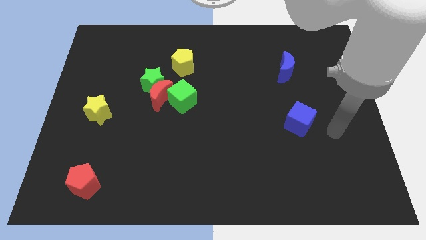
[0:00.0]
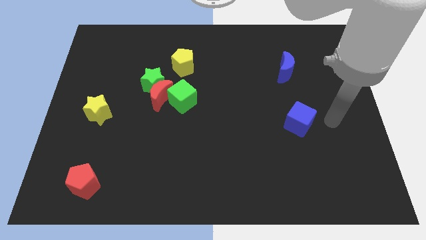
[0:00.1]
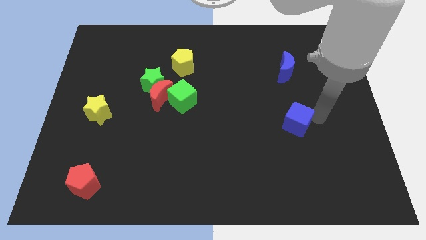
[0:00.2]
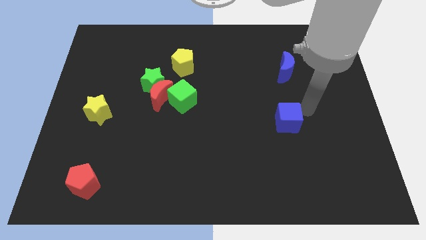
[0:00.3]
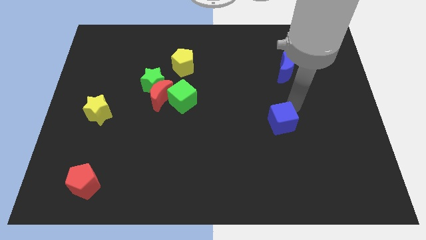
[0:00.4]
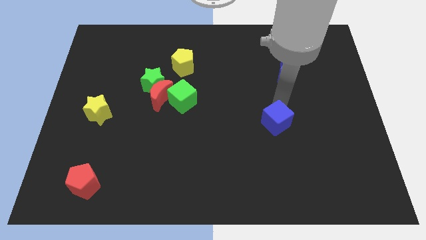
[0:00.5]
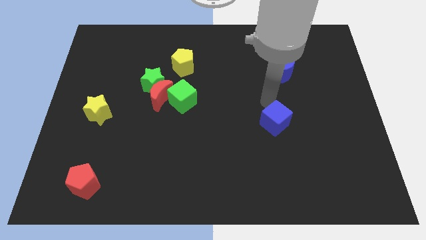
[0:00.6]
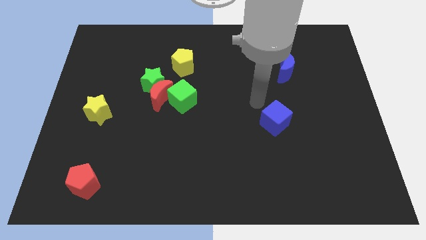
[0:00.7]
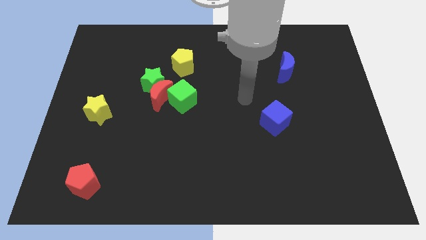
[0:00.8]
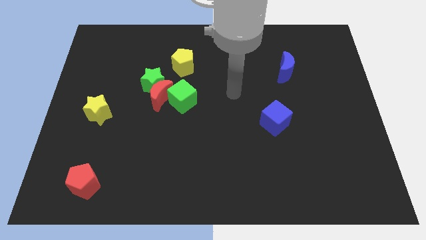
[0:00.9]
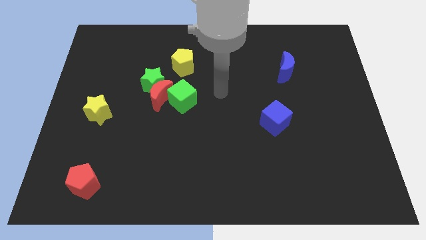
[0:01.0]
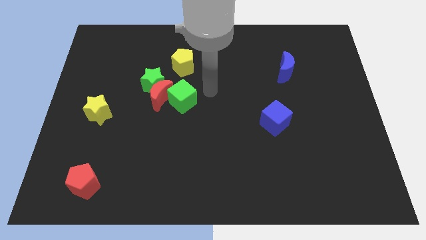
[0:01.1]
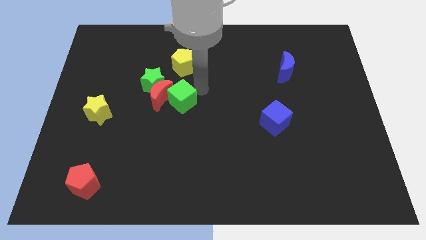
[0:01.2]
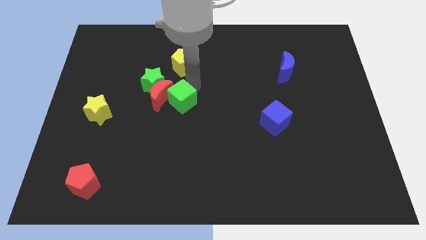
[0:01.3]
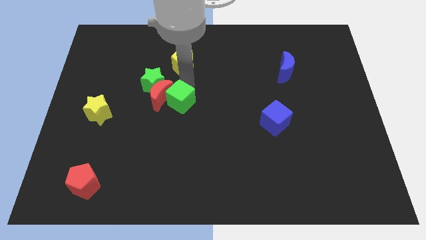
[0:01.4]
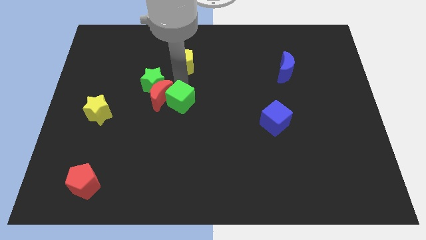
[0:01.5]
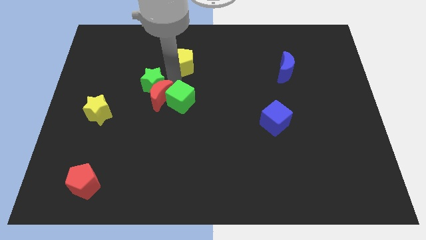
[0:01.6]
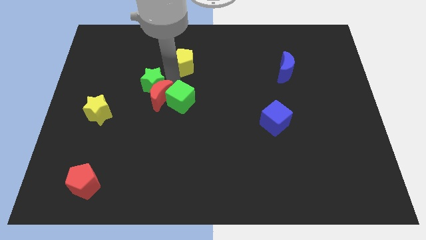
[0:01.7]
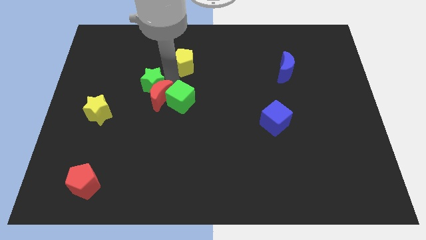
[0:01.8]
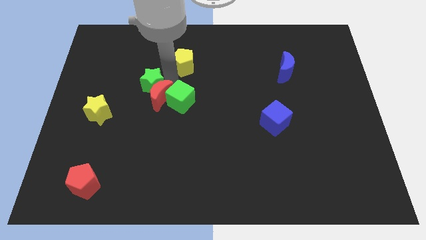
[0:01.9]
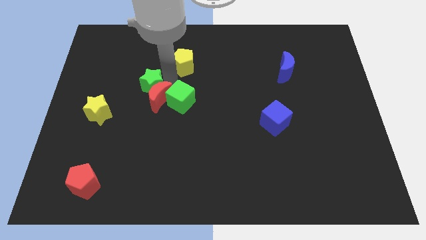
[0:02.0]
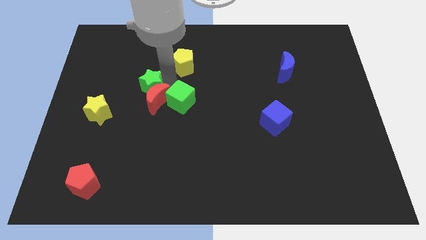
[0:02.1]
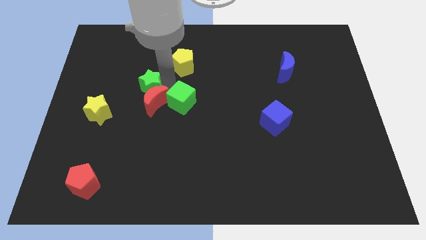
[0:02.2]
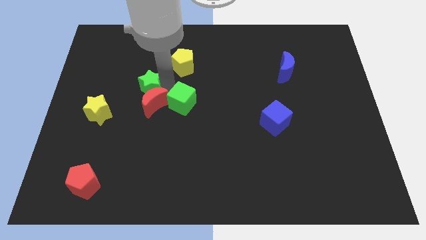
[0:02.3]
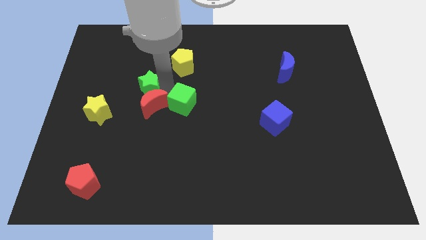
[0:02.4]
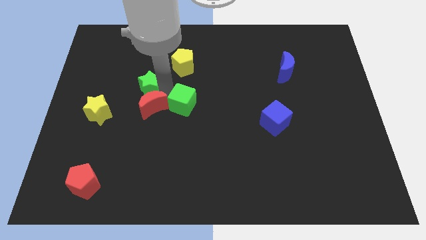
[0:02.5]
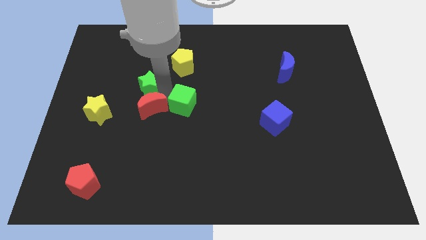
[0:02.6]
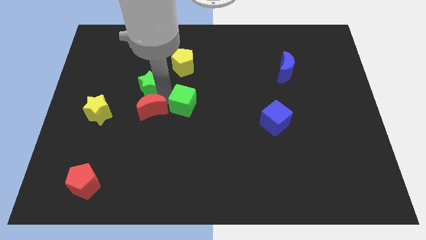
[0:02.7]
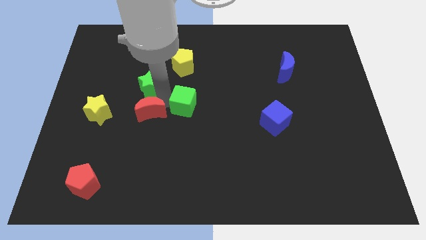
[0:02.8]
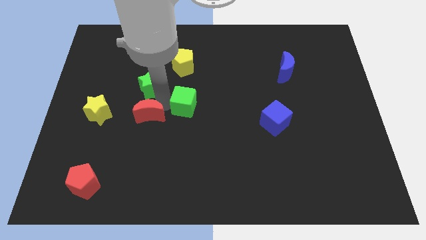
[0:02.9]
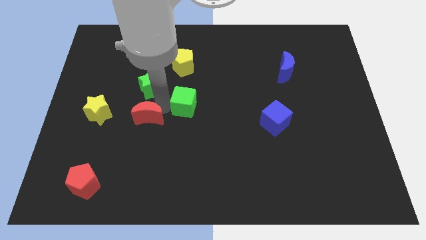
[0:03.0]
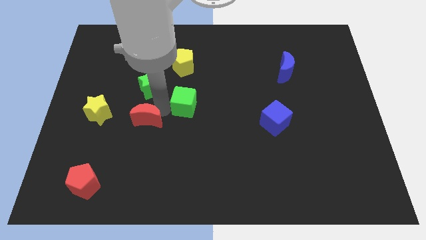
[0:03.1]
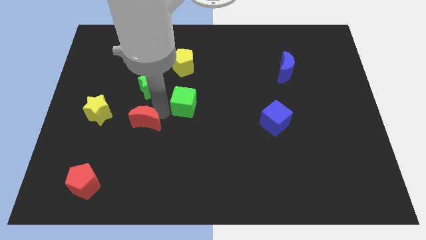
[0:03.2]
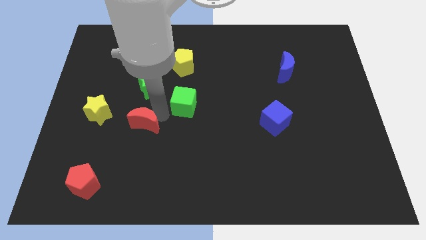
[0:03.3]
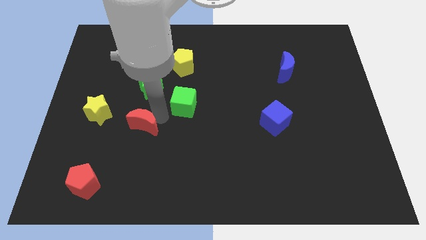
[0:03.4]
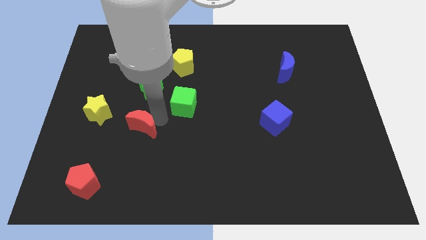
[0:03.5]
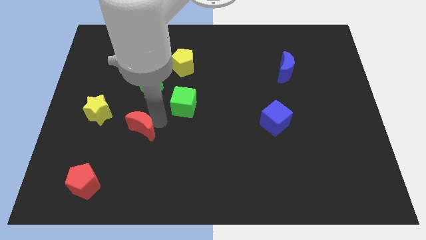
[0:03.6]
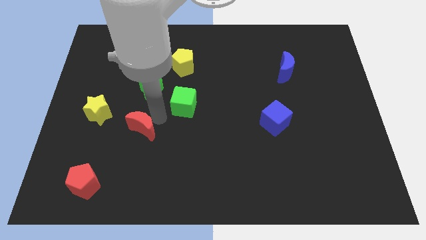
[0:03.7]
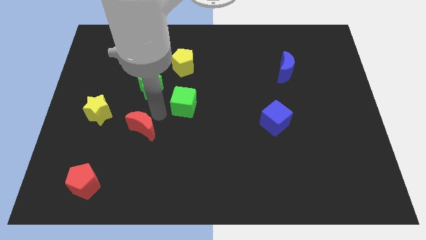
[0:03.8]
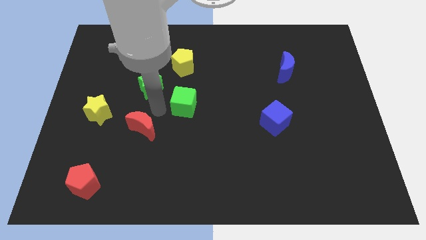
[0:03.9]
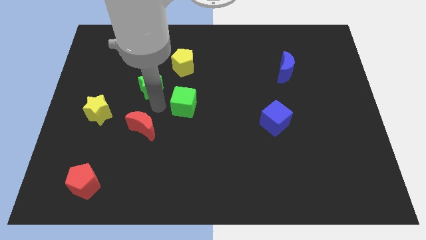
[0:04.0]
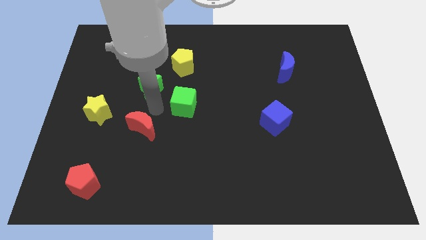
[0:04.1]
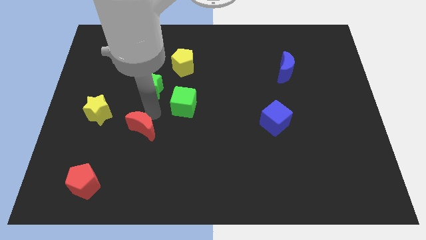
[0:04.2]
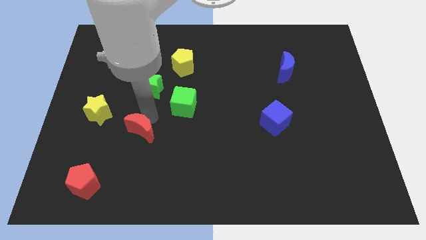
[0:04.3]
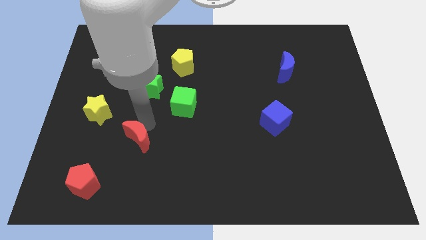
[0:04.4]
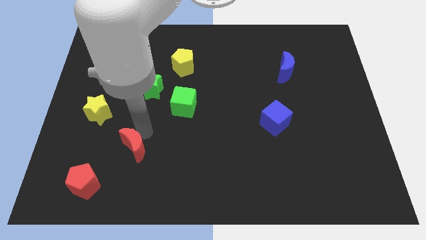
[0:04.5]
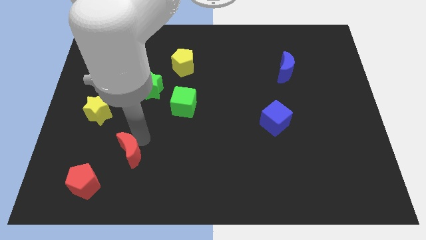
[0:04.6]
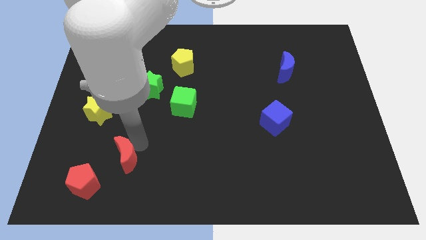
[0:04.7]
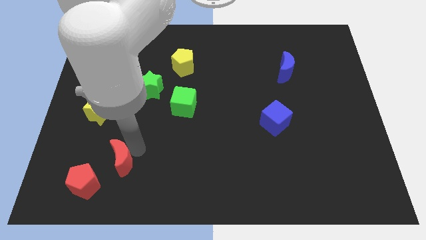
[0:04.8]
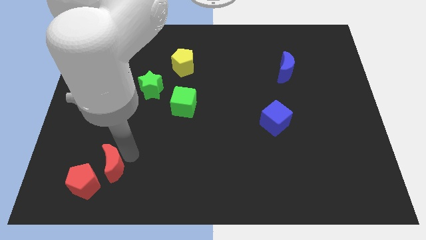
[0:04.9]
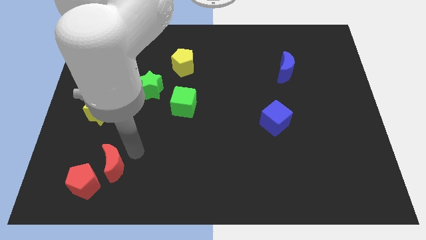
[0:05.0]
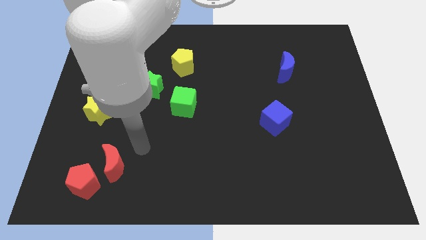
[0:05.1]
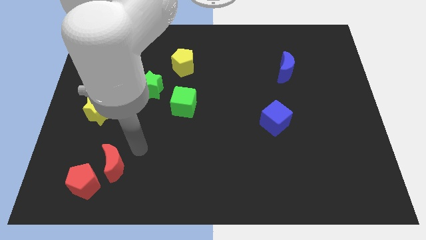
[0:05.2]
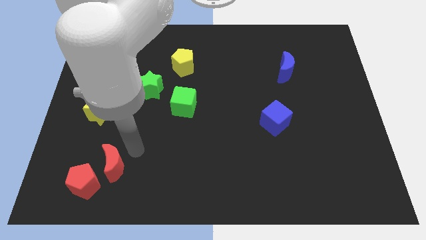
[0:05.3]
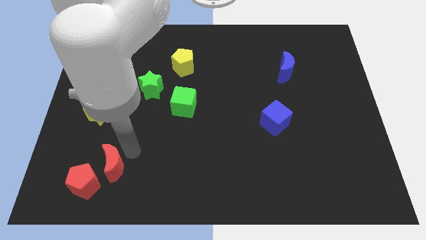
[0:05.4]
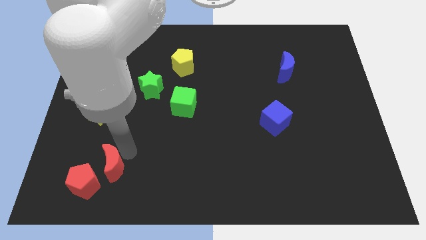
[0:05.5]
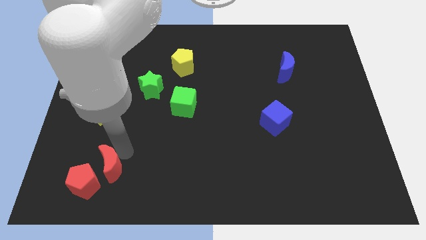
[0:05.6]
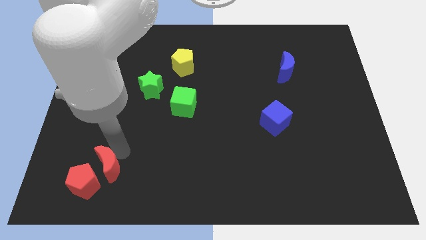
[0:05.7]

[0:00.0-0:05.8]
slide the red moon to the red pentagon

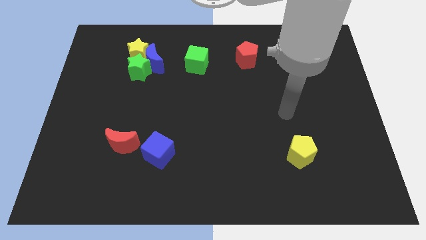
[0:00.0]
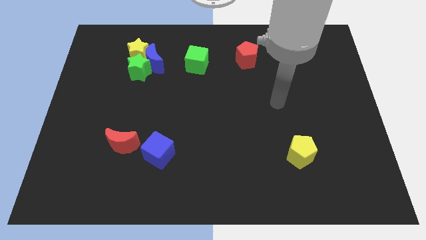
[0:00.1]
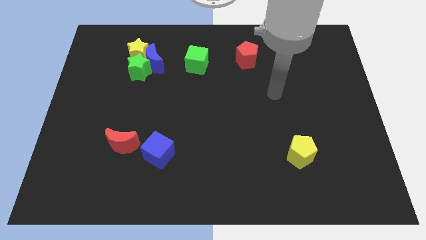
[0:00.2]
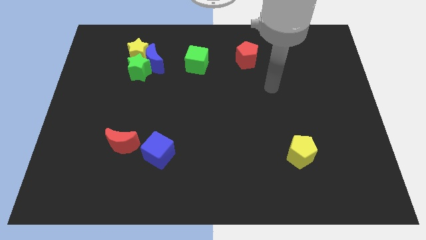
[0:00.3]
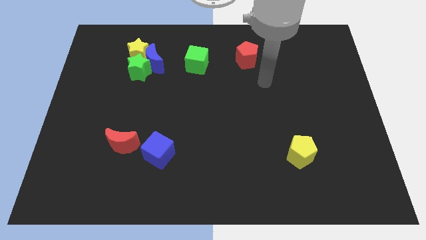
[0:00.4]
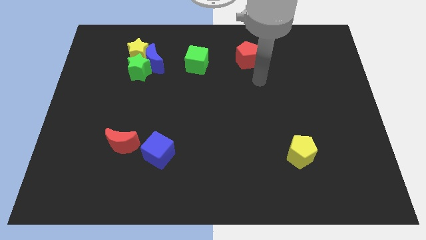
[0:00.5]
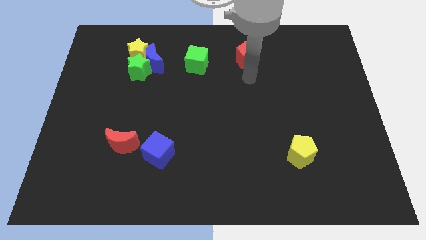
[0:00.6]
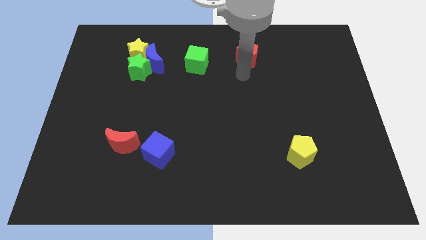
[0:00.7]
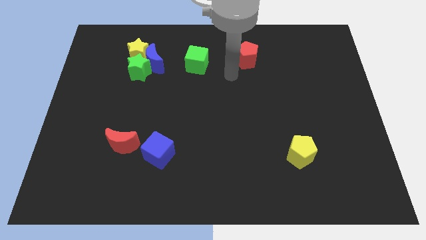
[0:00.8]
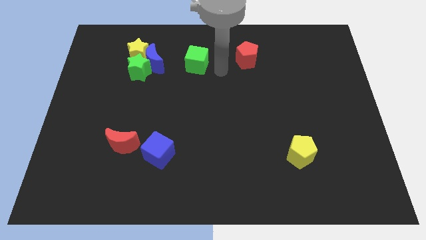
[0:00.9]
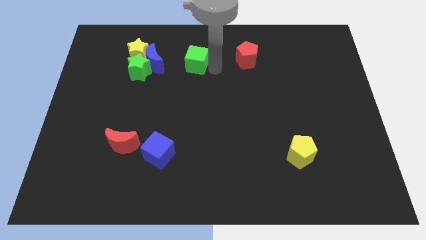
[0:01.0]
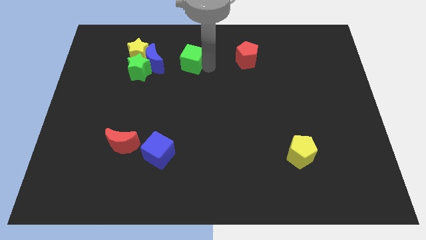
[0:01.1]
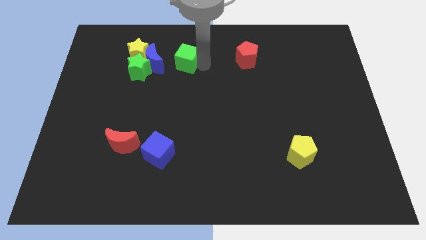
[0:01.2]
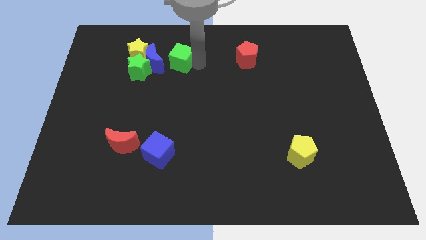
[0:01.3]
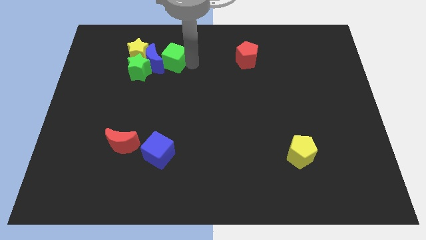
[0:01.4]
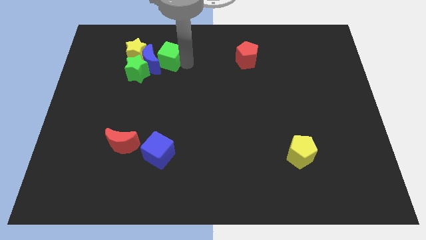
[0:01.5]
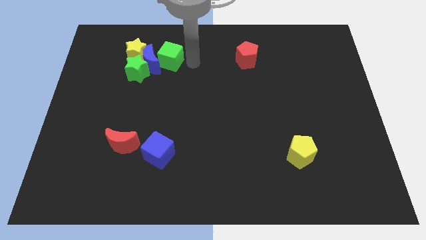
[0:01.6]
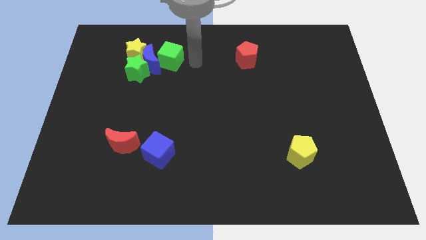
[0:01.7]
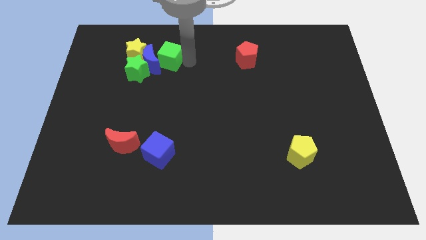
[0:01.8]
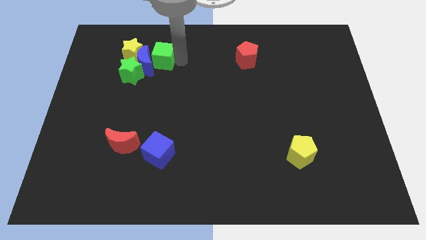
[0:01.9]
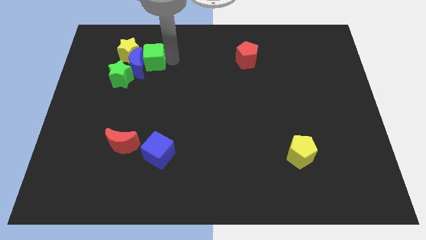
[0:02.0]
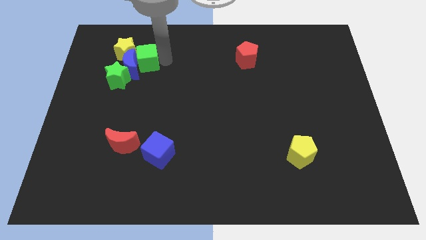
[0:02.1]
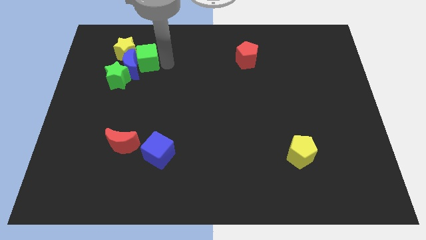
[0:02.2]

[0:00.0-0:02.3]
move the green cube towards the yellow star
